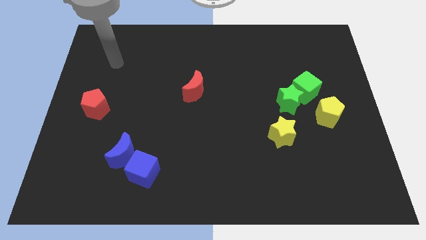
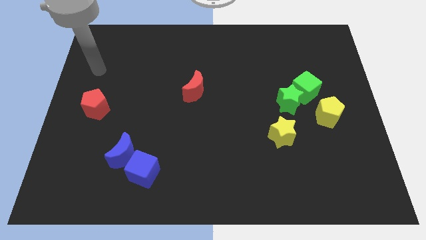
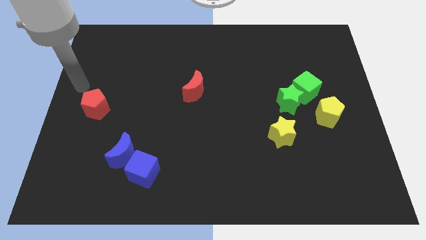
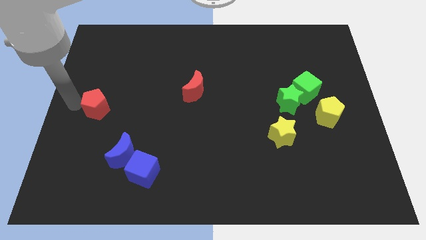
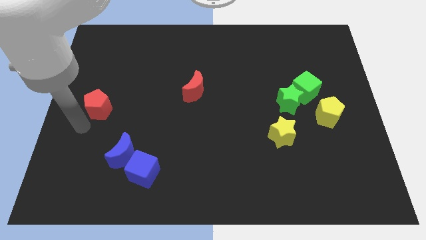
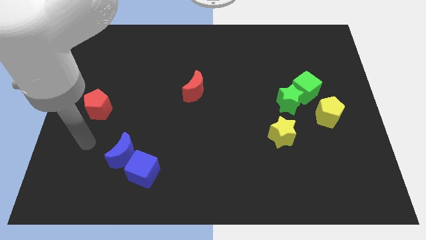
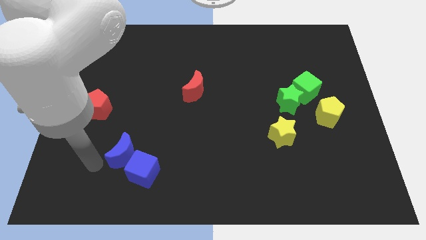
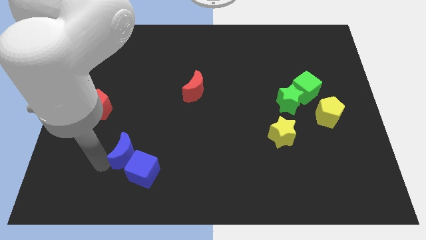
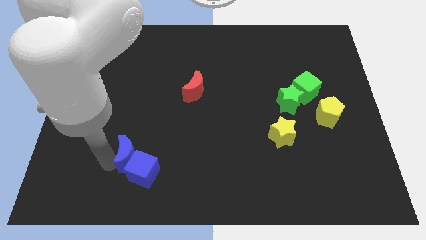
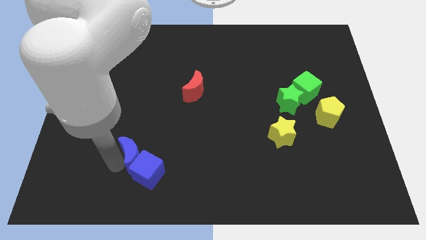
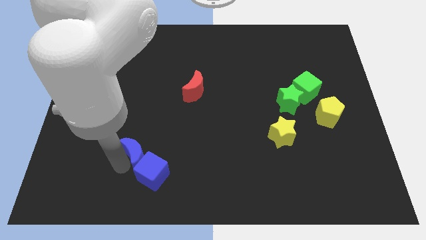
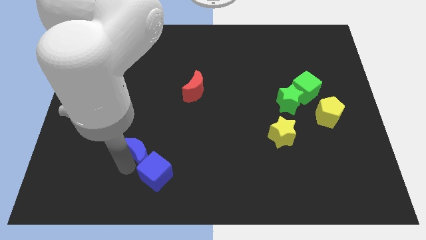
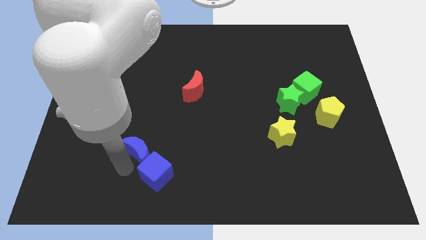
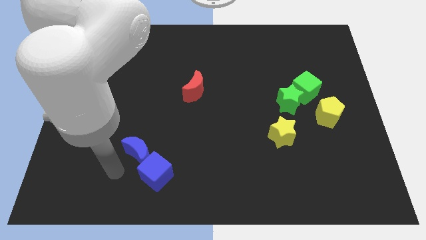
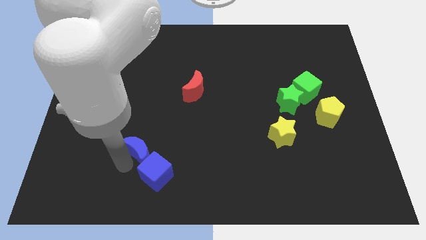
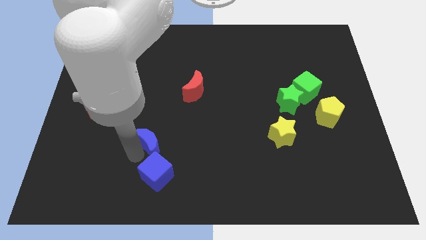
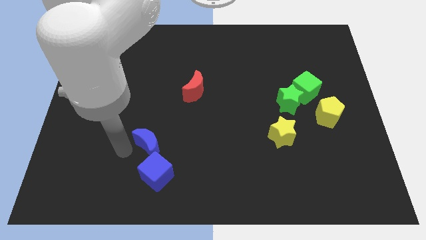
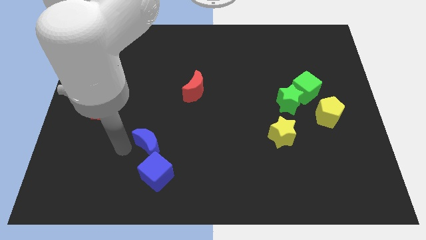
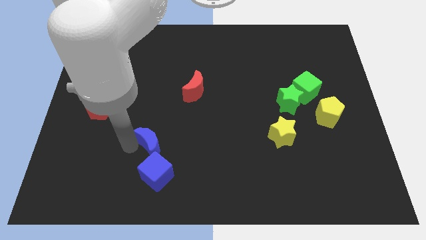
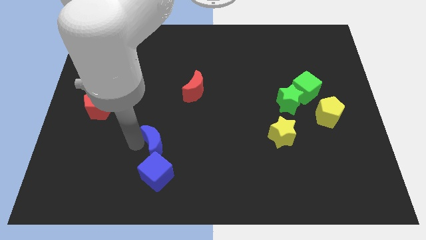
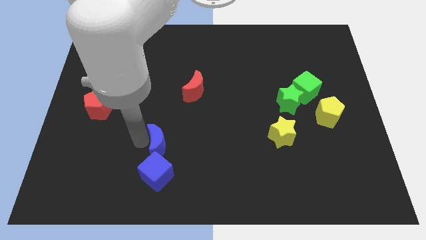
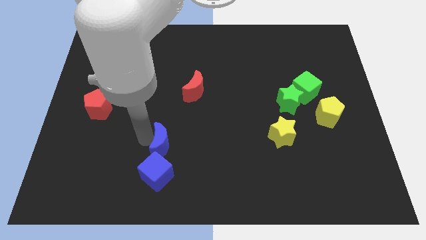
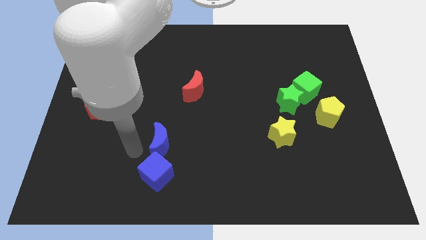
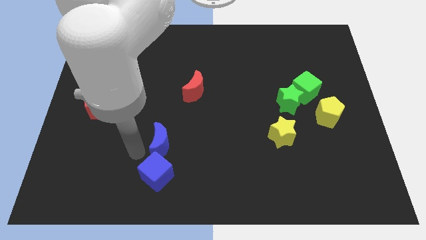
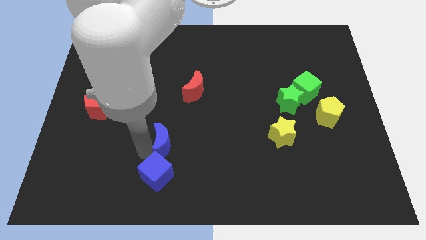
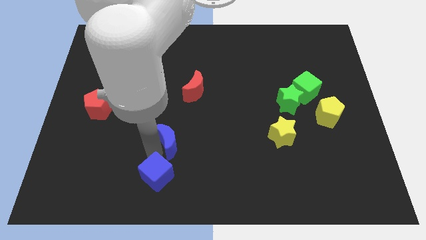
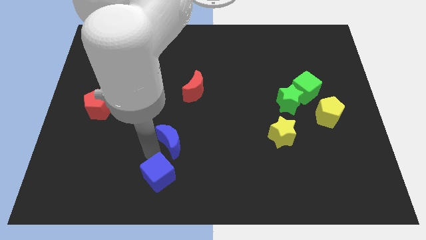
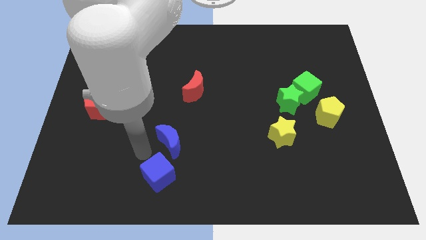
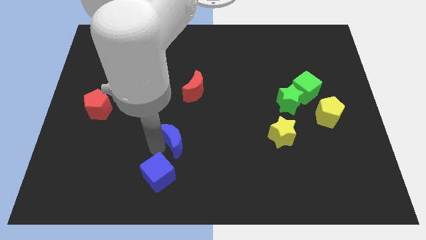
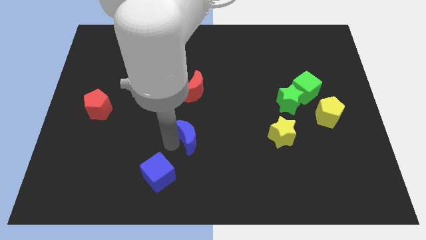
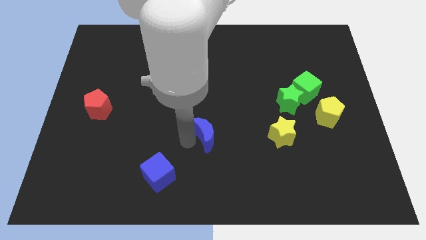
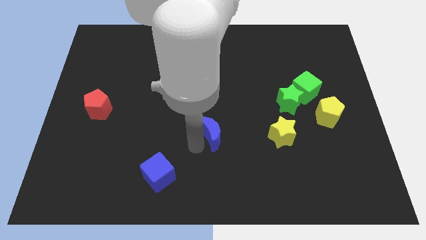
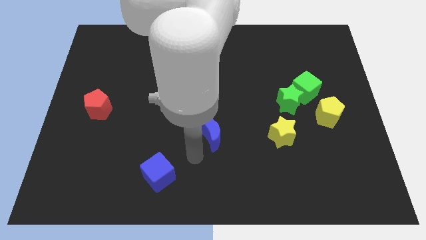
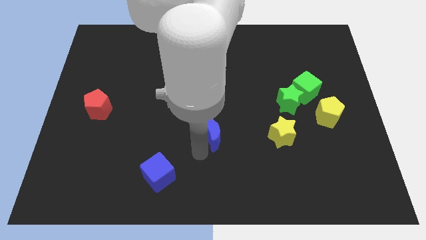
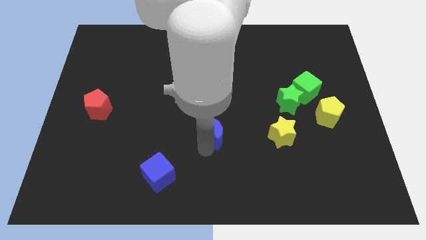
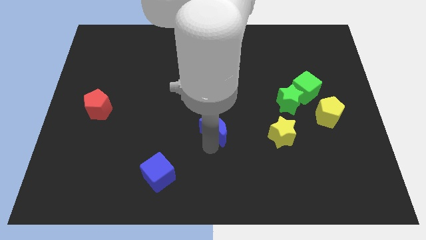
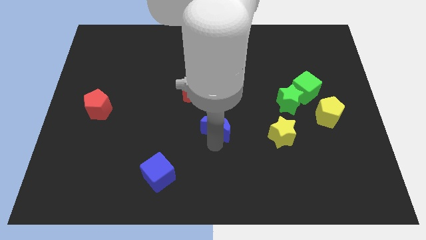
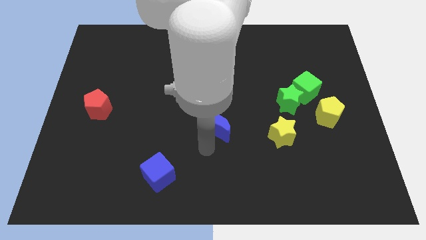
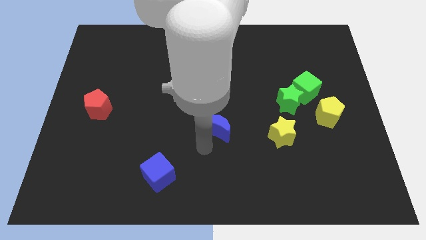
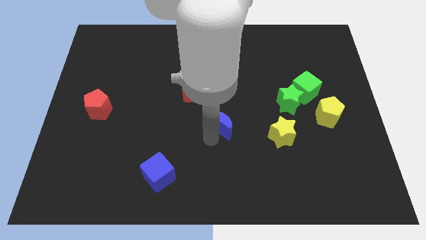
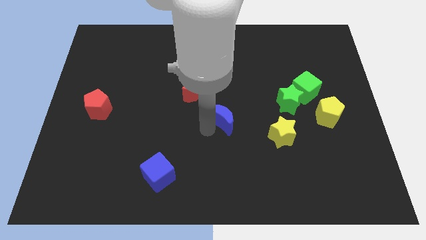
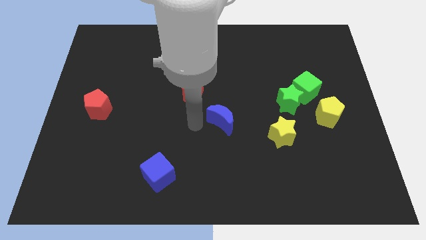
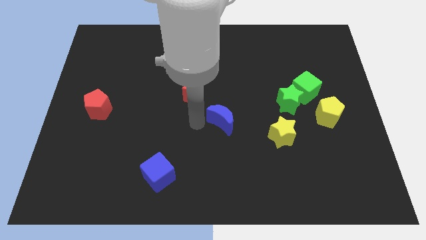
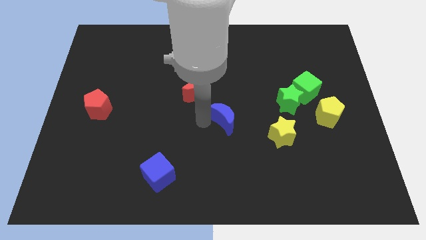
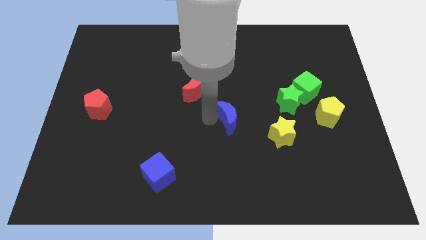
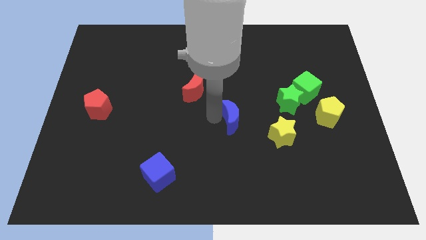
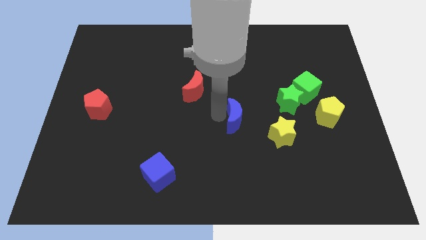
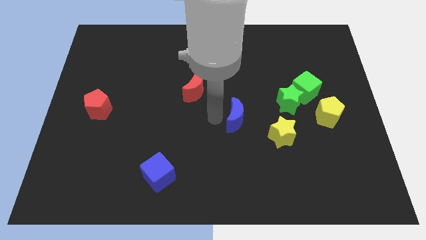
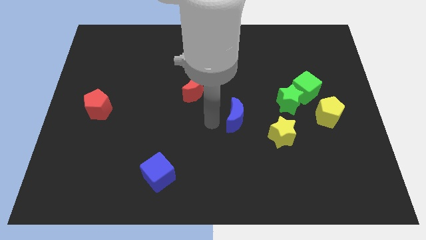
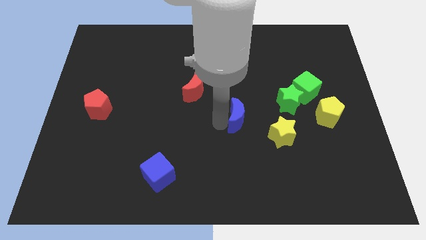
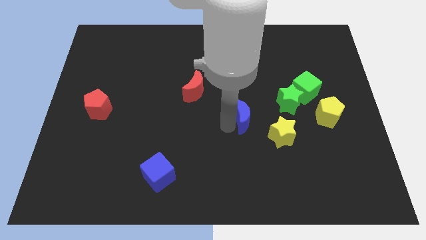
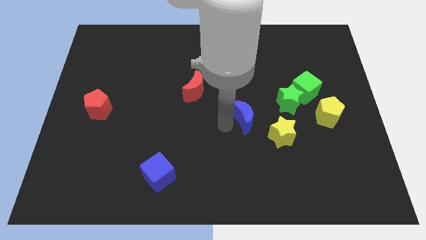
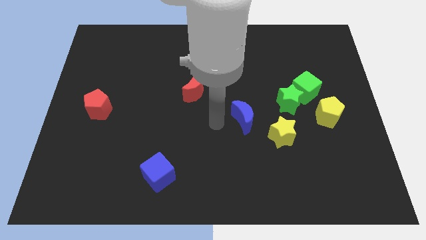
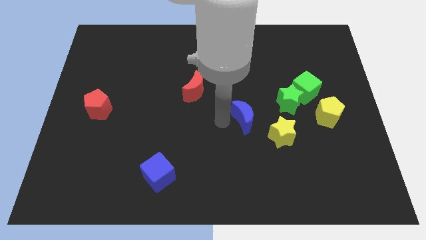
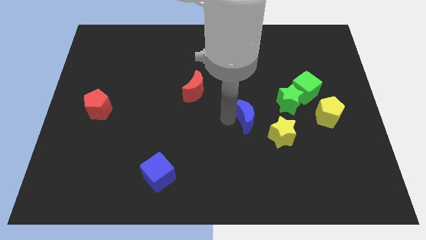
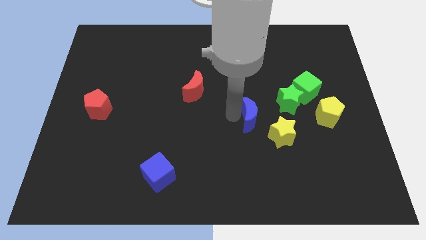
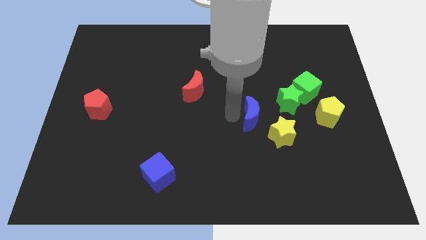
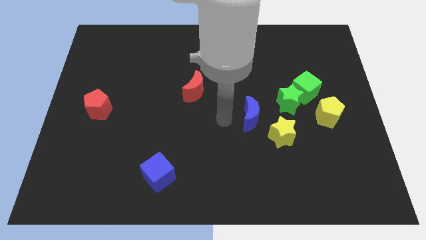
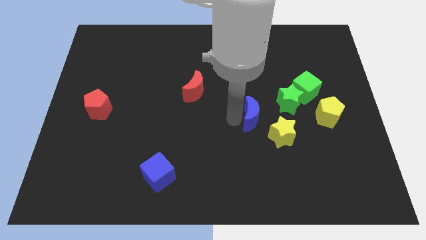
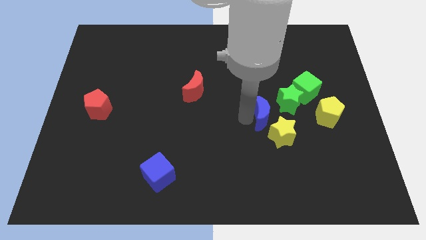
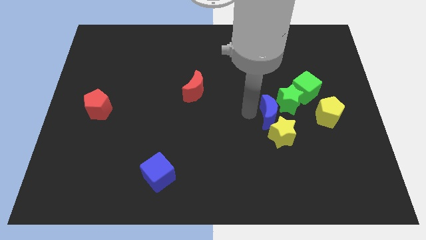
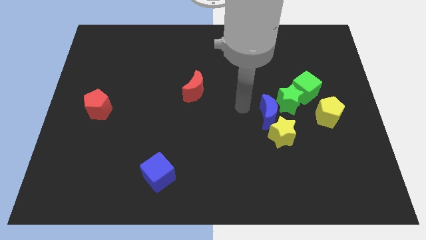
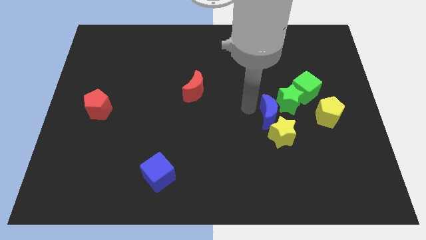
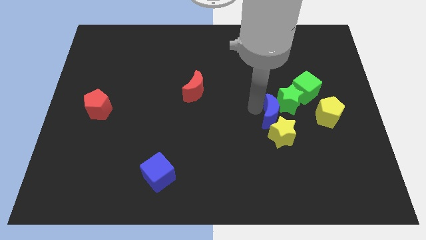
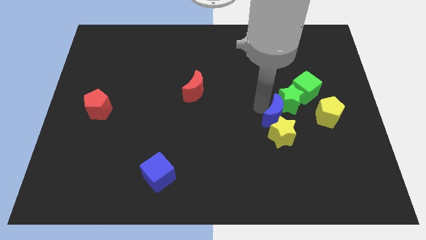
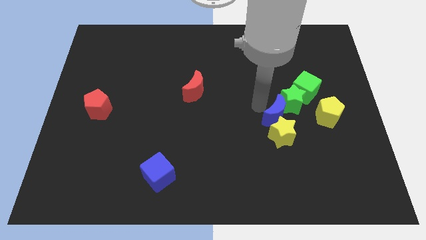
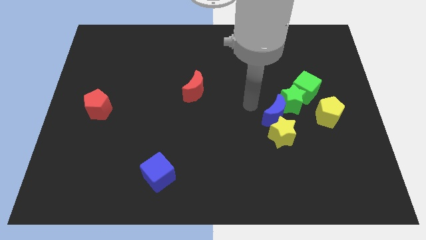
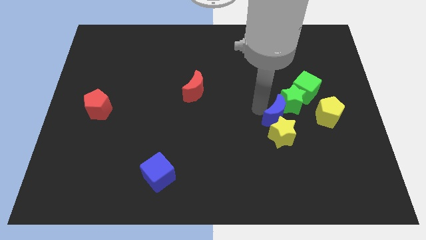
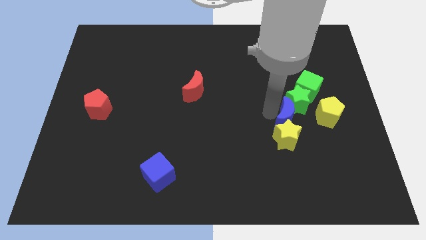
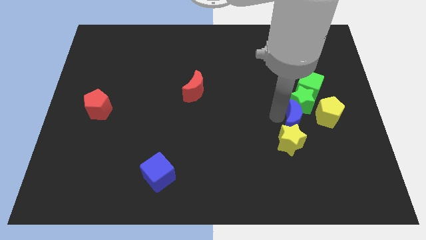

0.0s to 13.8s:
slide the blue moon below the green cube
